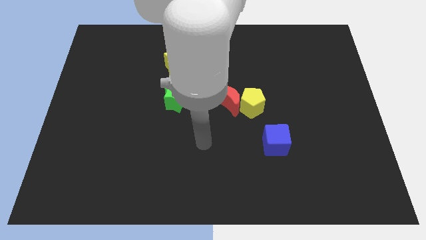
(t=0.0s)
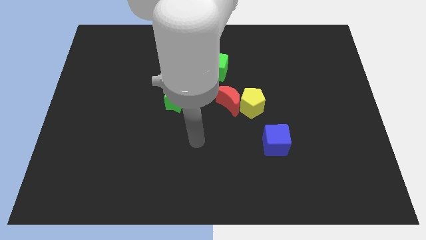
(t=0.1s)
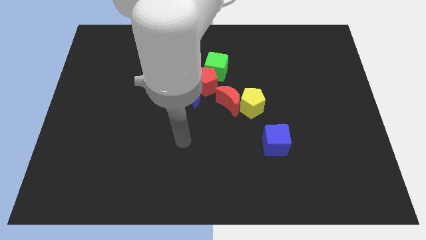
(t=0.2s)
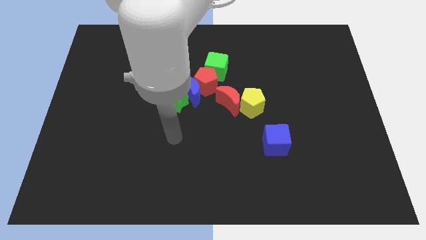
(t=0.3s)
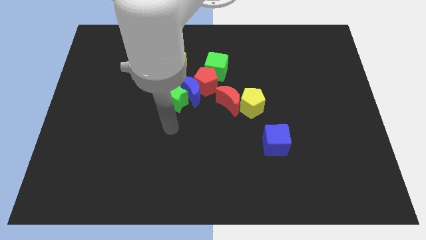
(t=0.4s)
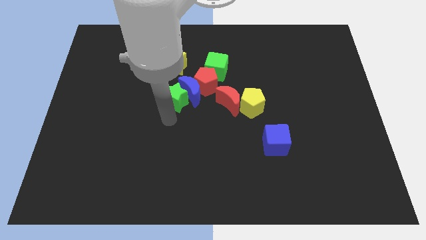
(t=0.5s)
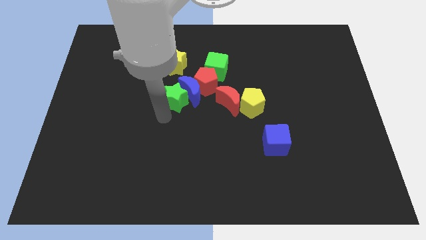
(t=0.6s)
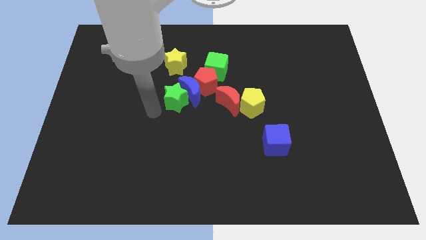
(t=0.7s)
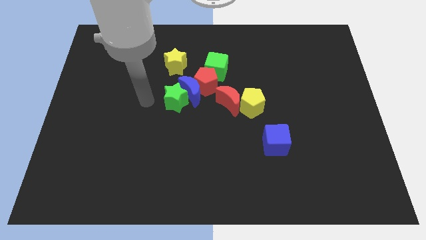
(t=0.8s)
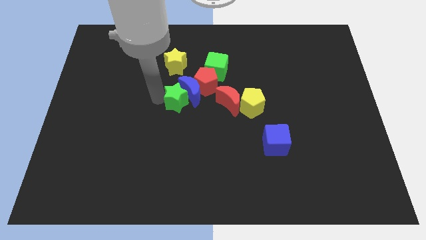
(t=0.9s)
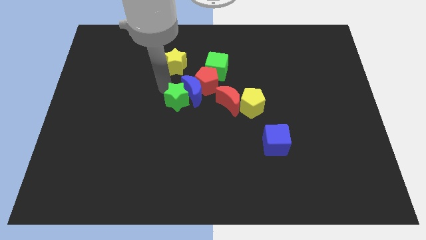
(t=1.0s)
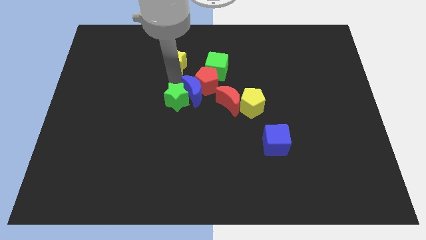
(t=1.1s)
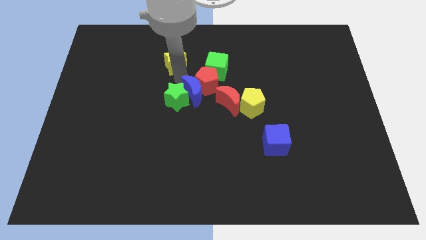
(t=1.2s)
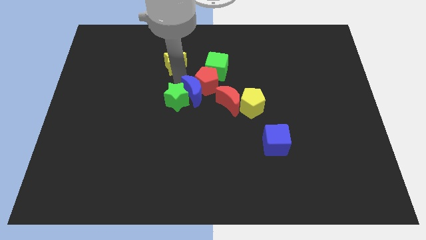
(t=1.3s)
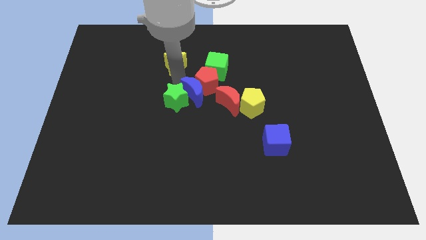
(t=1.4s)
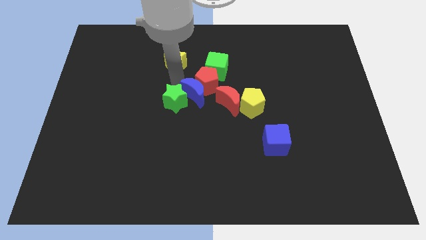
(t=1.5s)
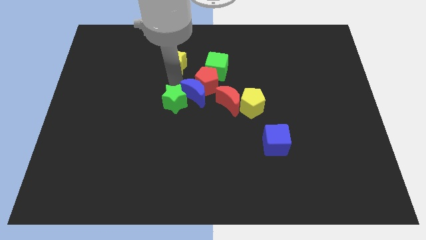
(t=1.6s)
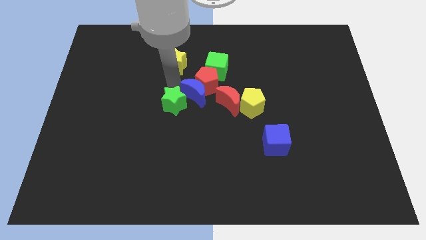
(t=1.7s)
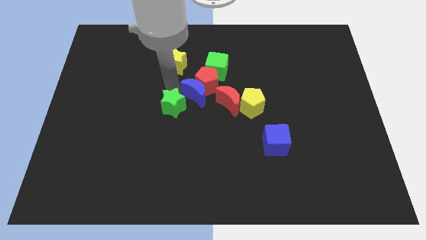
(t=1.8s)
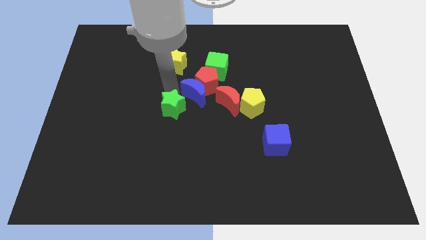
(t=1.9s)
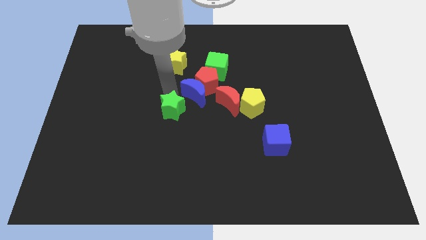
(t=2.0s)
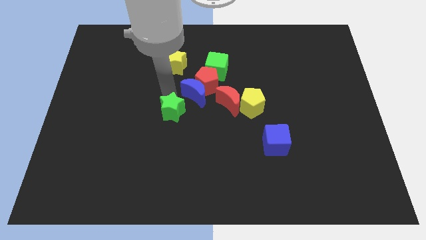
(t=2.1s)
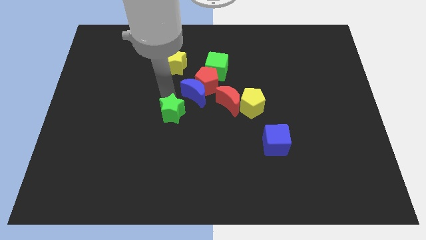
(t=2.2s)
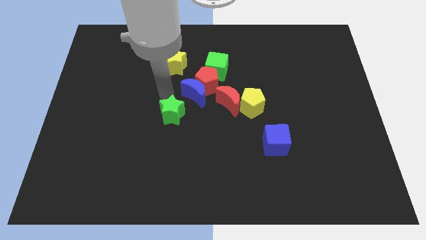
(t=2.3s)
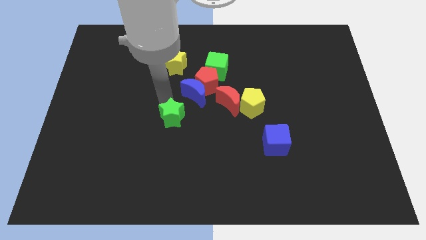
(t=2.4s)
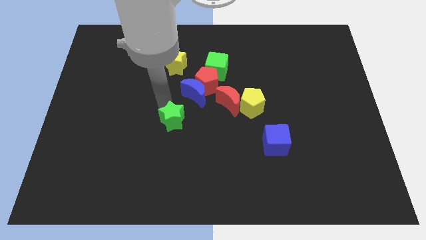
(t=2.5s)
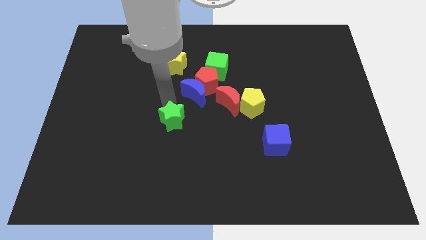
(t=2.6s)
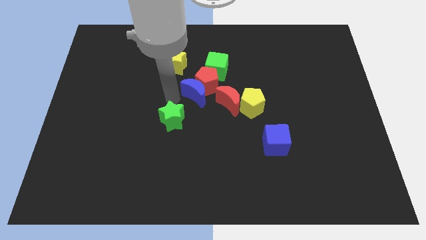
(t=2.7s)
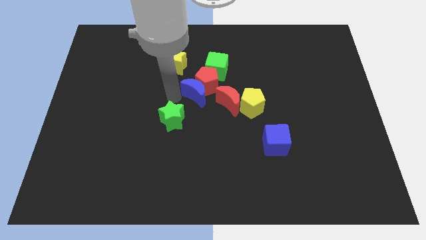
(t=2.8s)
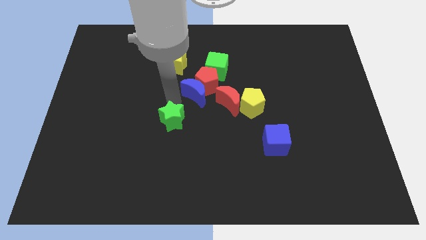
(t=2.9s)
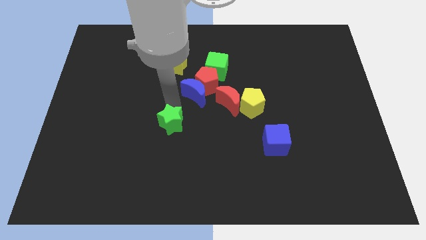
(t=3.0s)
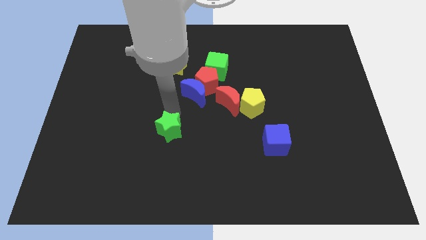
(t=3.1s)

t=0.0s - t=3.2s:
slide the green star down slightly

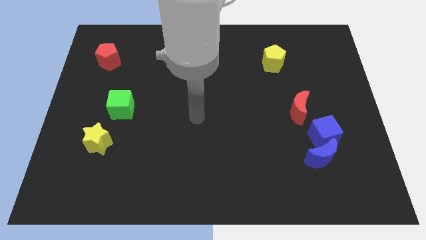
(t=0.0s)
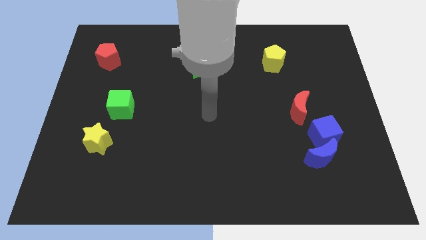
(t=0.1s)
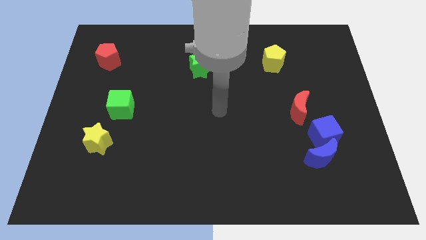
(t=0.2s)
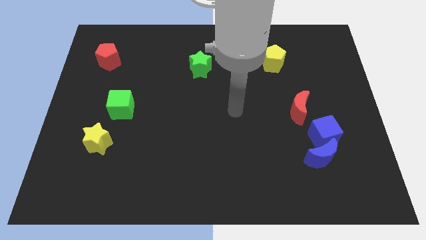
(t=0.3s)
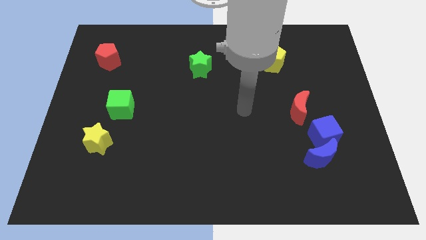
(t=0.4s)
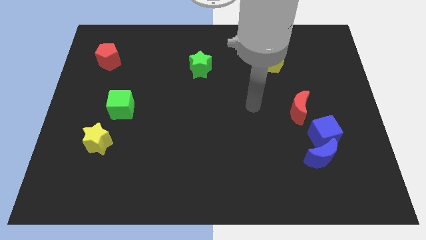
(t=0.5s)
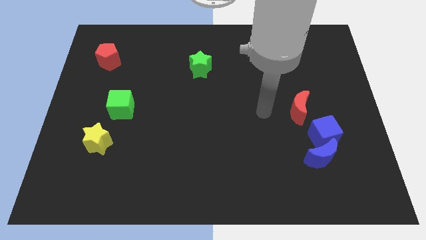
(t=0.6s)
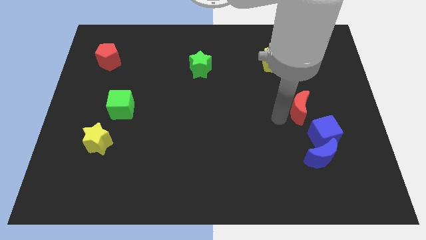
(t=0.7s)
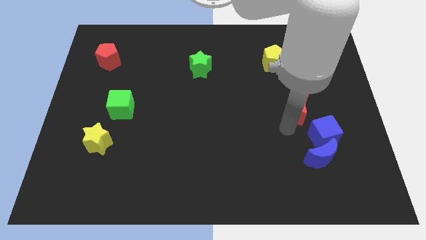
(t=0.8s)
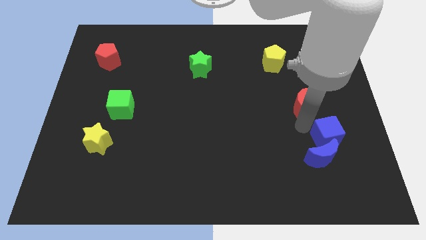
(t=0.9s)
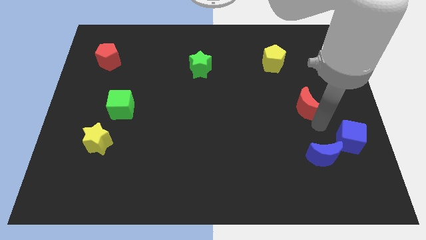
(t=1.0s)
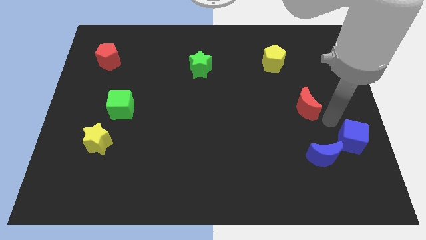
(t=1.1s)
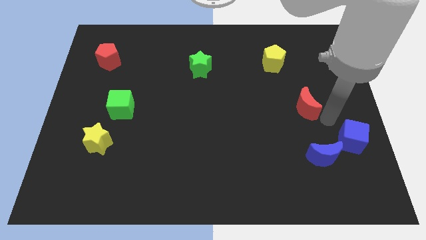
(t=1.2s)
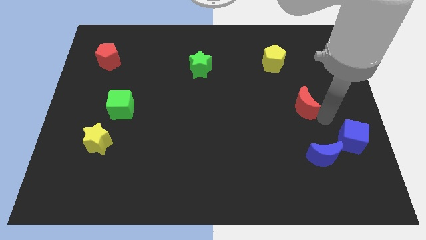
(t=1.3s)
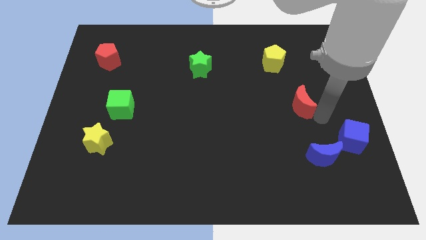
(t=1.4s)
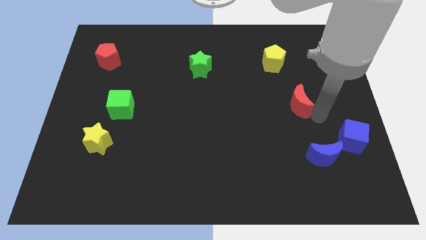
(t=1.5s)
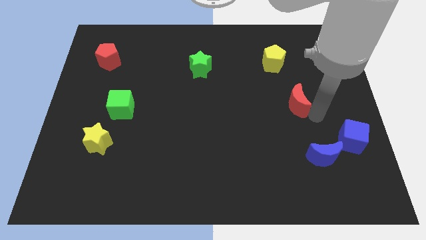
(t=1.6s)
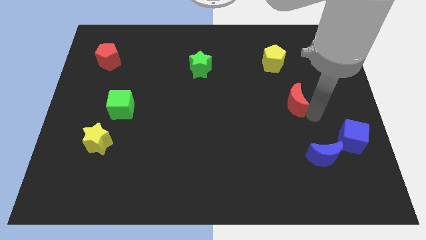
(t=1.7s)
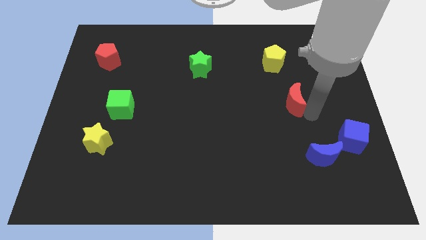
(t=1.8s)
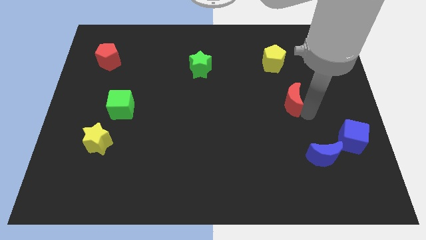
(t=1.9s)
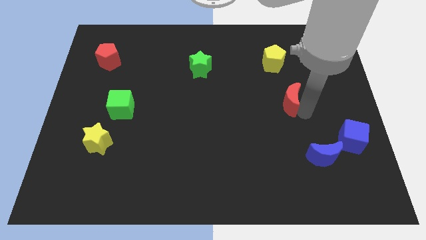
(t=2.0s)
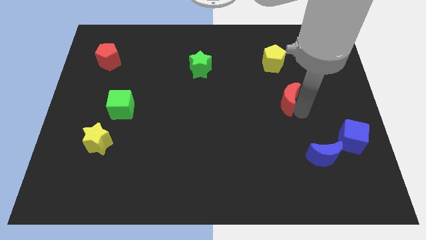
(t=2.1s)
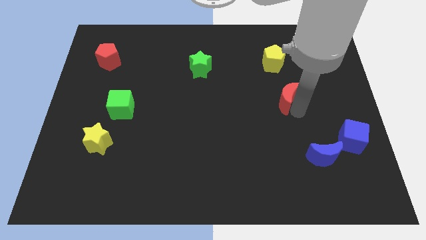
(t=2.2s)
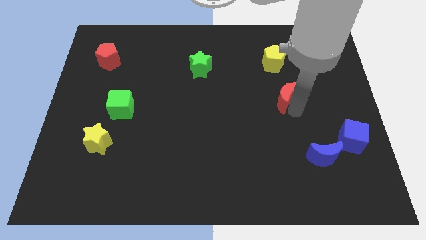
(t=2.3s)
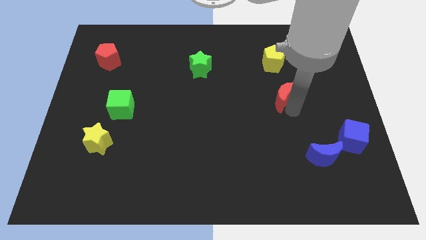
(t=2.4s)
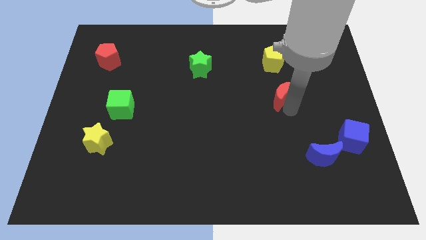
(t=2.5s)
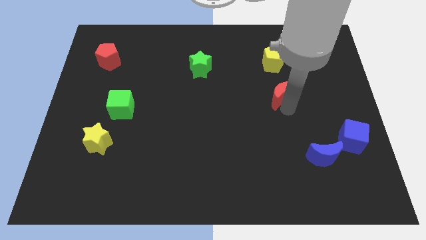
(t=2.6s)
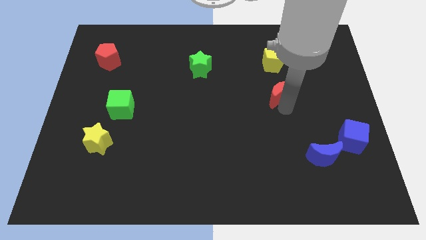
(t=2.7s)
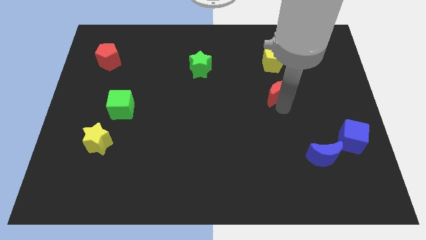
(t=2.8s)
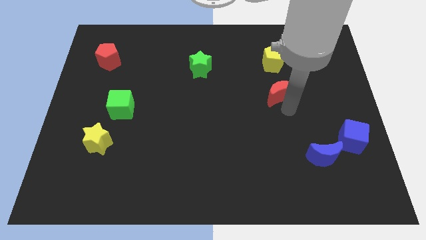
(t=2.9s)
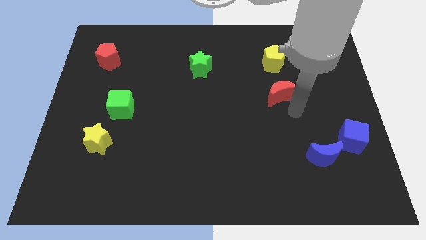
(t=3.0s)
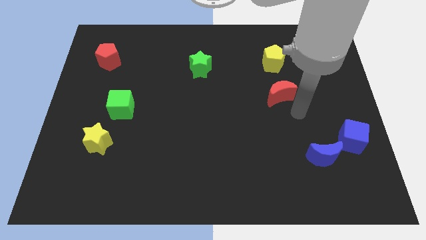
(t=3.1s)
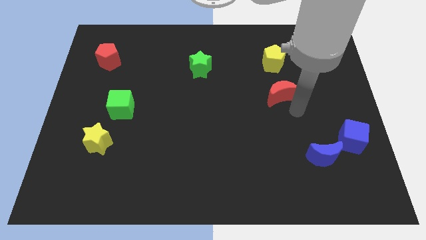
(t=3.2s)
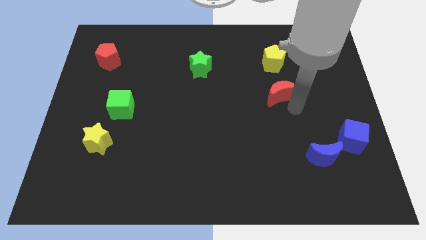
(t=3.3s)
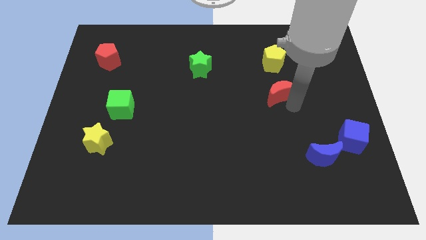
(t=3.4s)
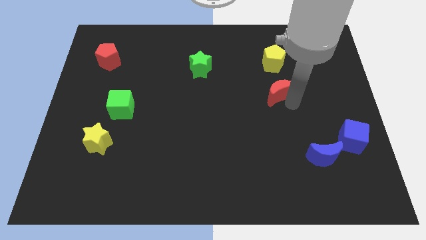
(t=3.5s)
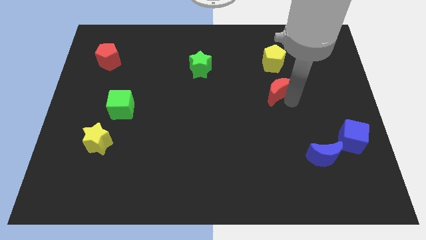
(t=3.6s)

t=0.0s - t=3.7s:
push the red moon a little diagonally up and left

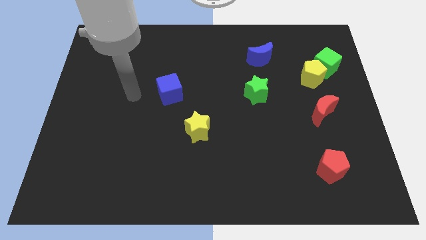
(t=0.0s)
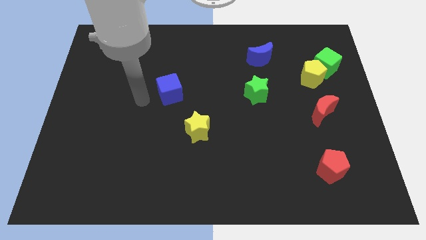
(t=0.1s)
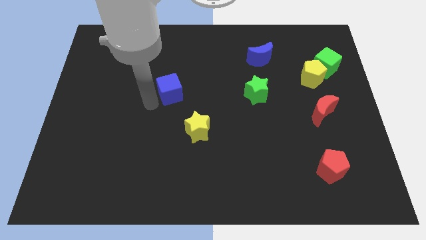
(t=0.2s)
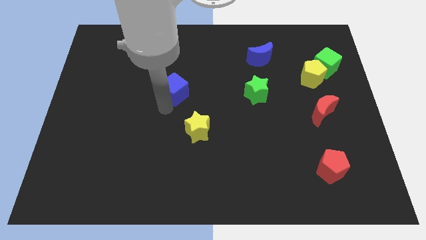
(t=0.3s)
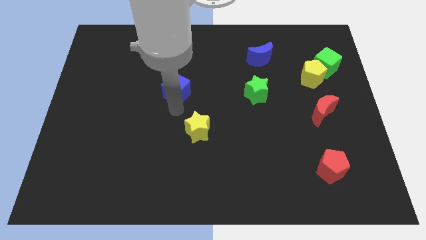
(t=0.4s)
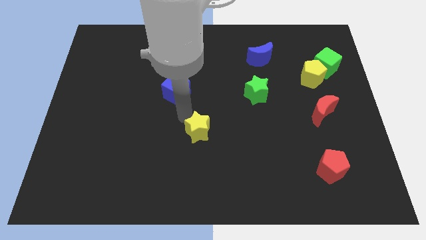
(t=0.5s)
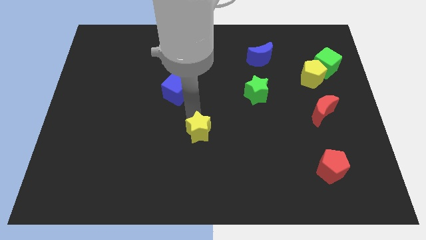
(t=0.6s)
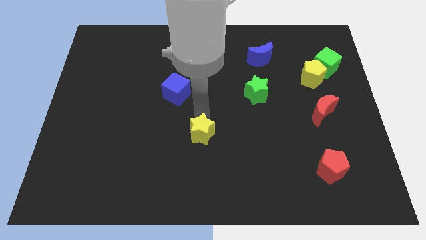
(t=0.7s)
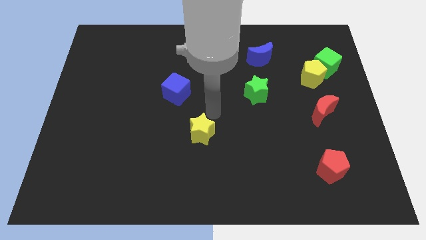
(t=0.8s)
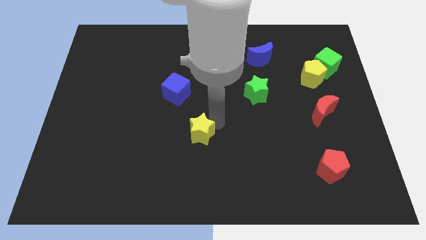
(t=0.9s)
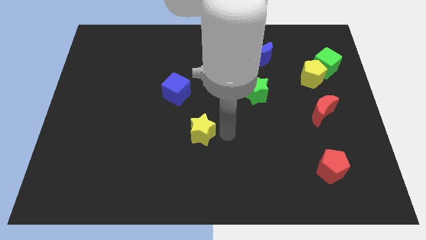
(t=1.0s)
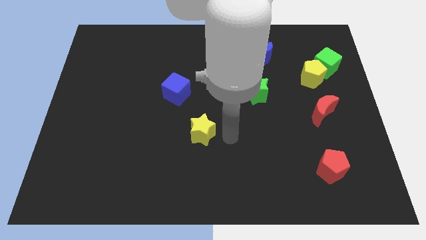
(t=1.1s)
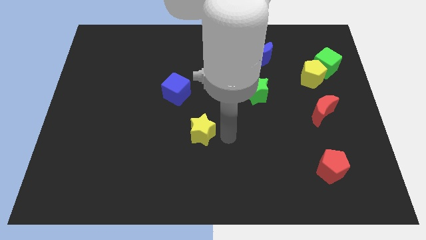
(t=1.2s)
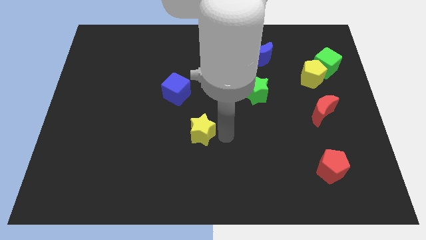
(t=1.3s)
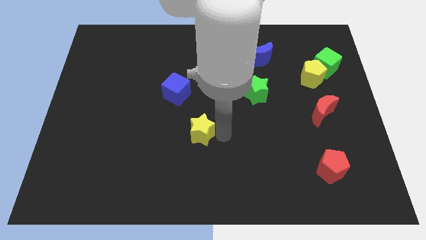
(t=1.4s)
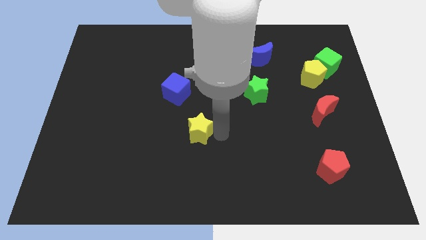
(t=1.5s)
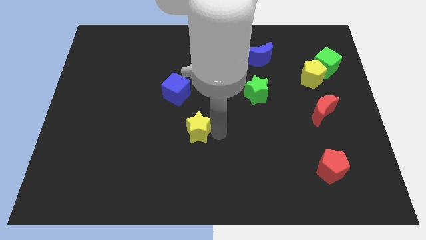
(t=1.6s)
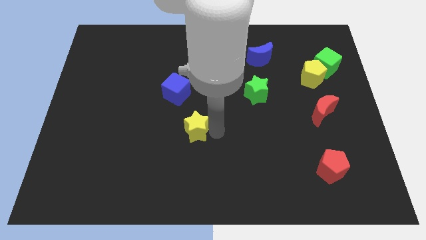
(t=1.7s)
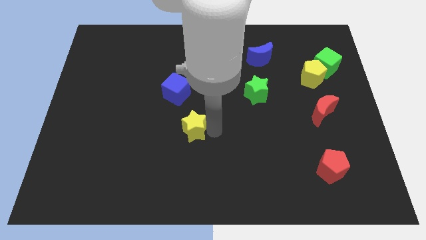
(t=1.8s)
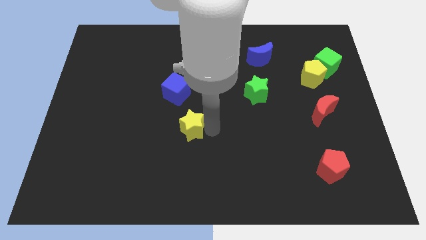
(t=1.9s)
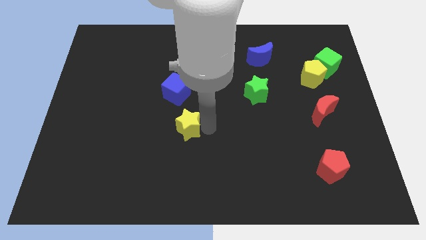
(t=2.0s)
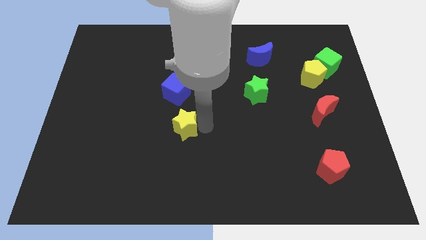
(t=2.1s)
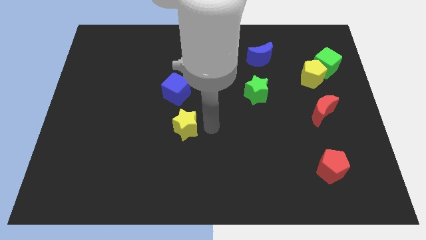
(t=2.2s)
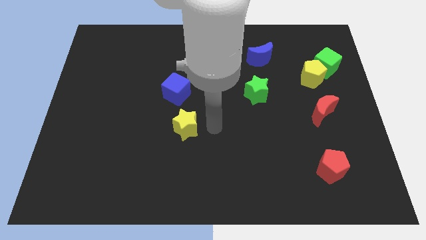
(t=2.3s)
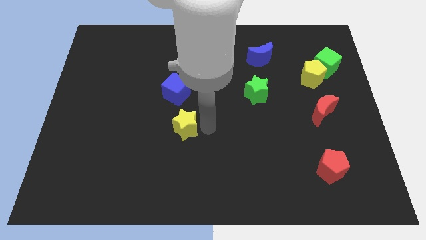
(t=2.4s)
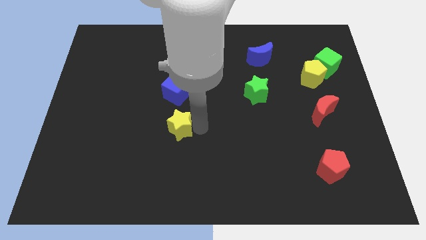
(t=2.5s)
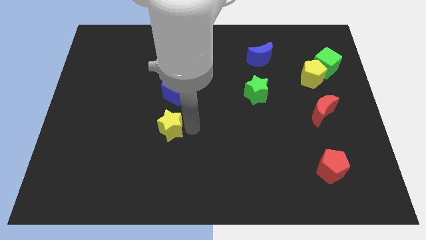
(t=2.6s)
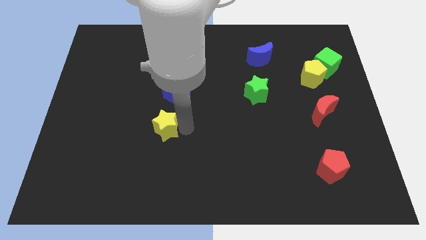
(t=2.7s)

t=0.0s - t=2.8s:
slide the yellow star left slightly
